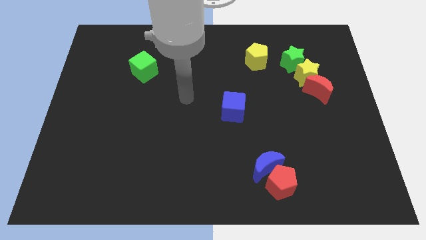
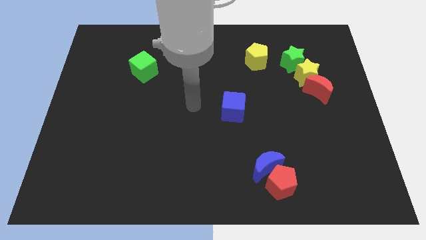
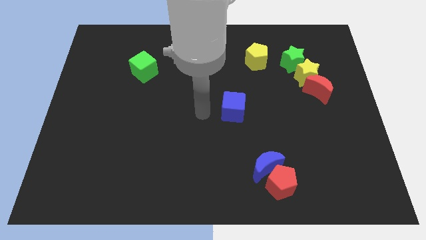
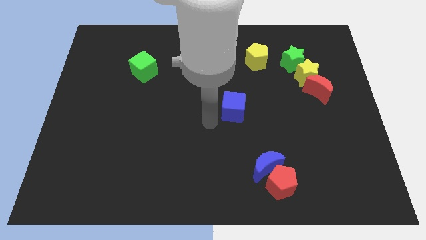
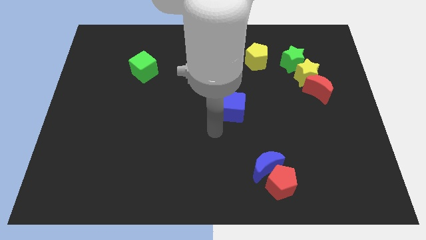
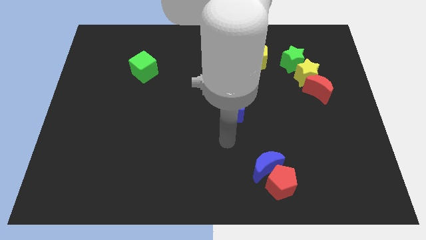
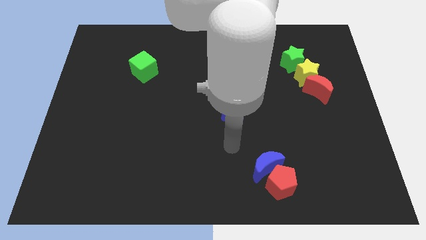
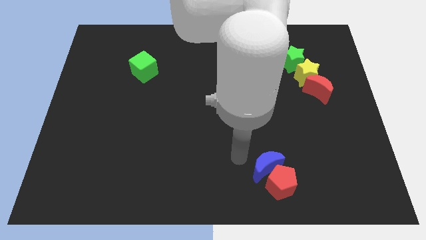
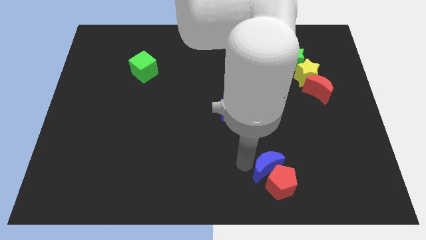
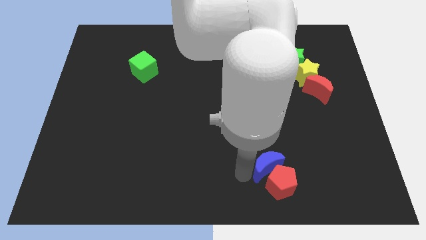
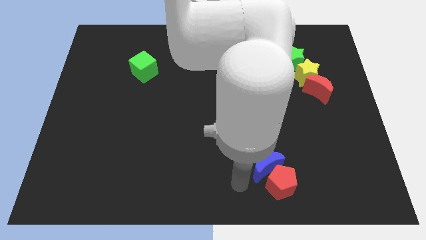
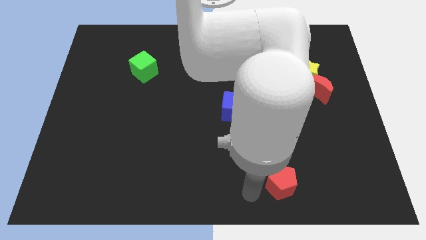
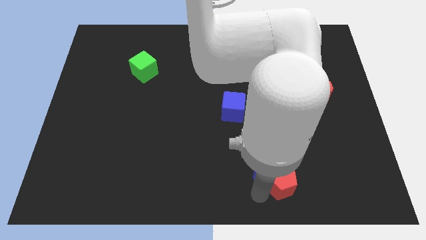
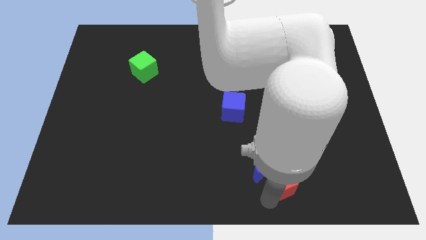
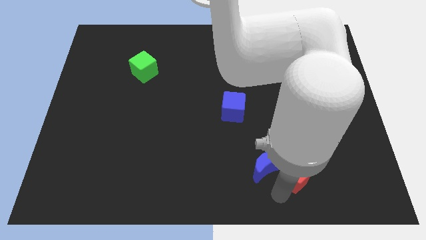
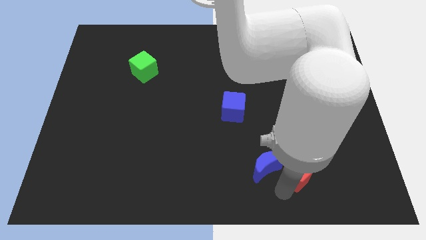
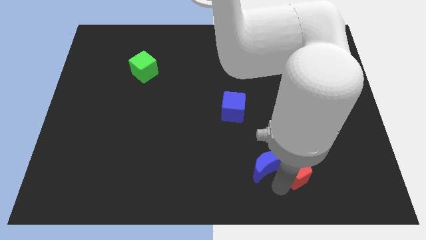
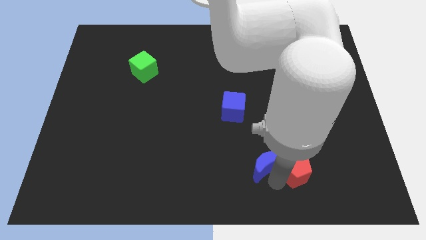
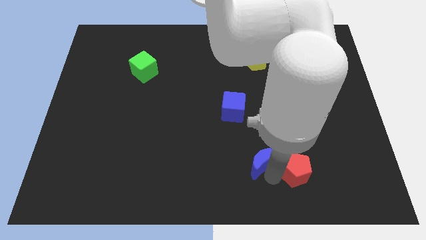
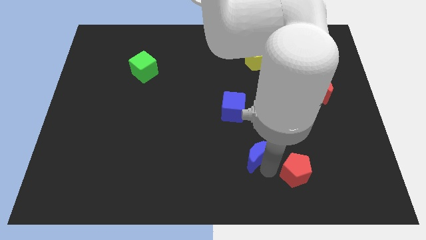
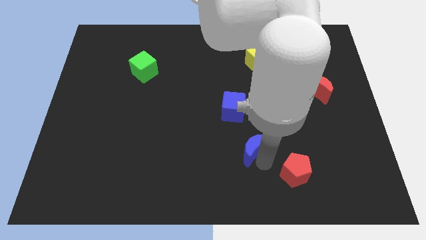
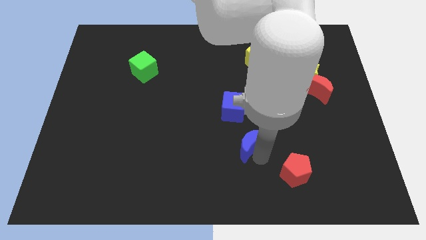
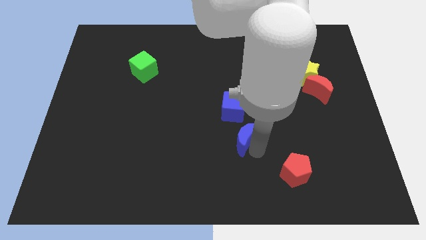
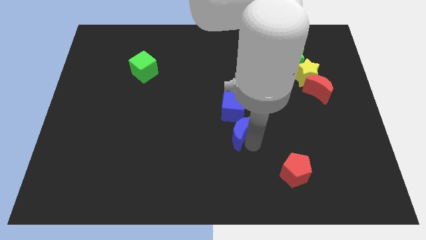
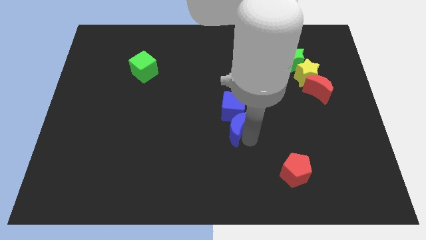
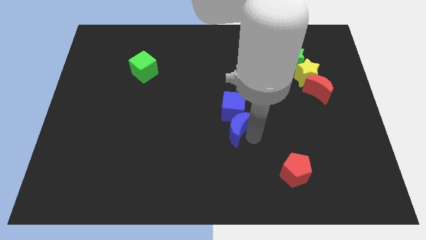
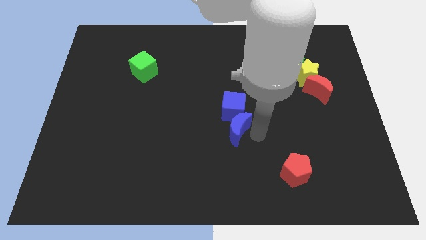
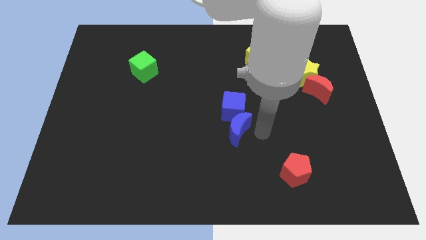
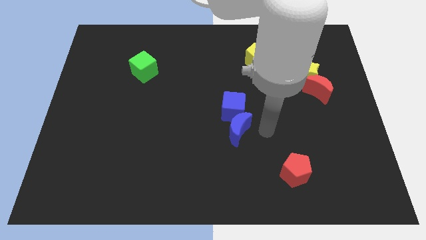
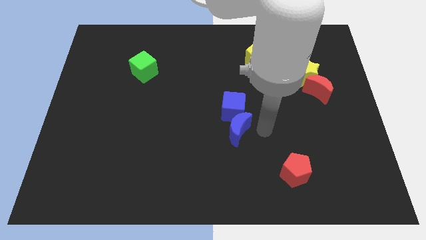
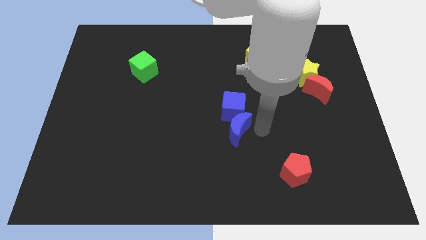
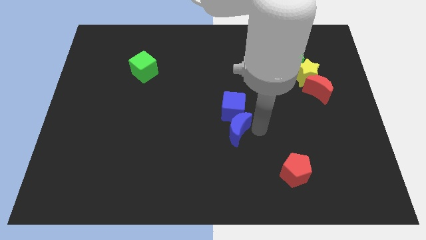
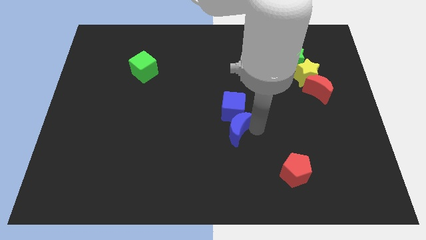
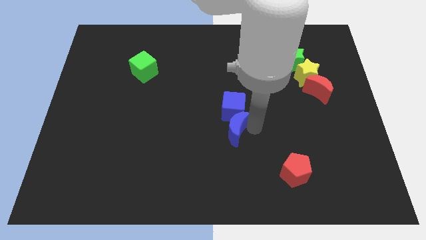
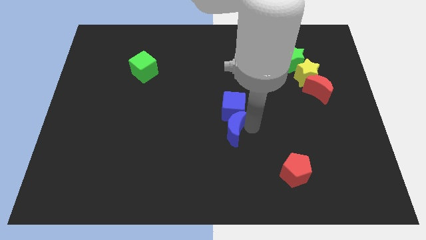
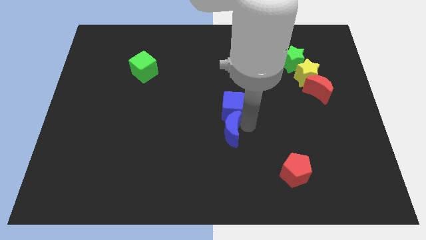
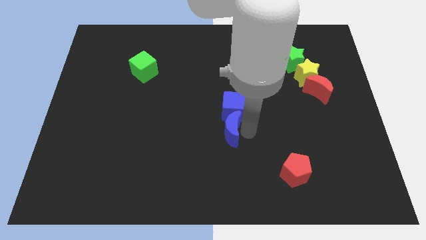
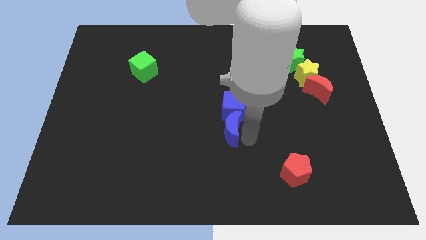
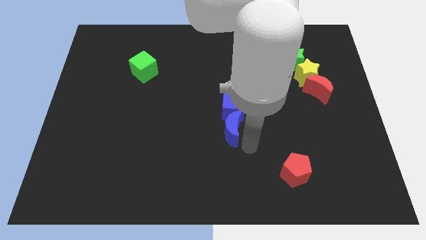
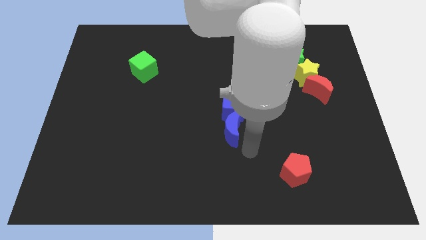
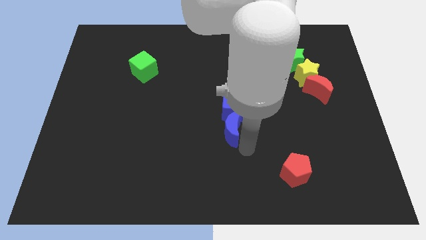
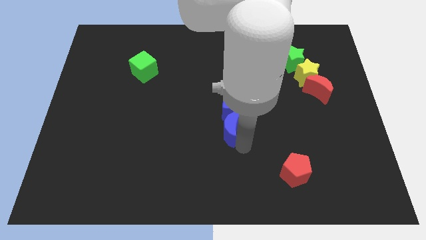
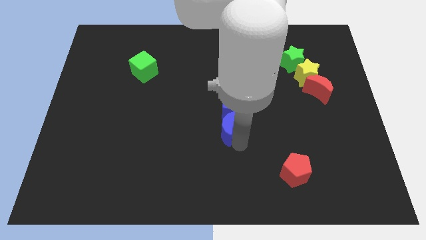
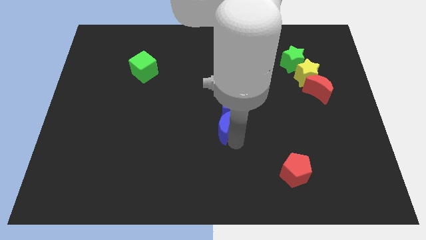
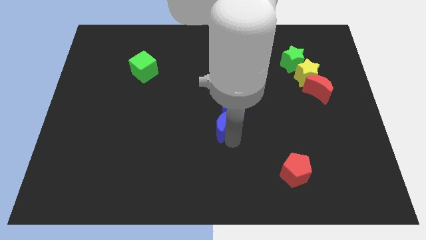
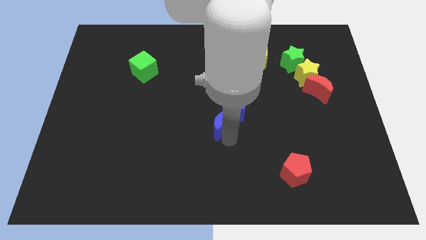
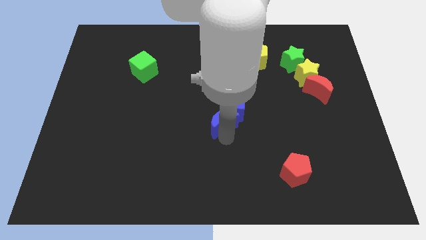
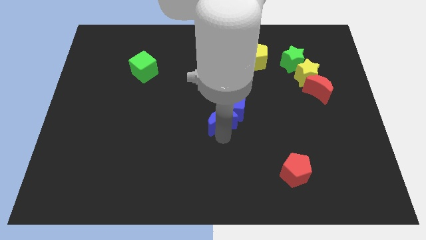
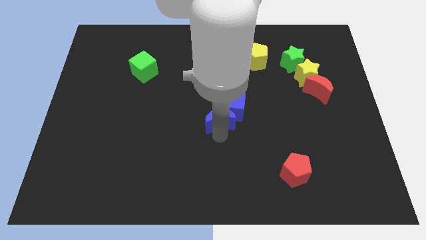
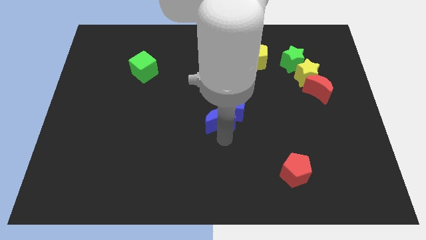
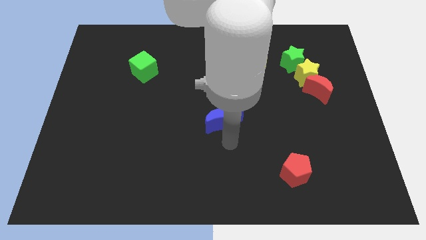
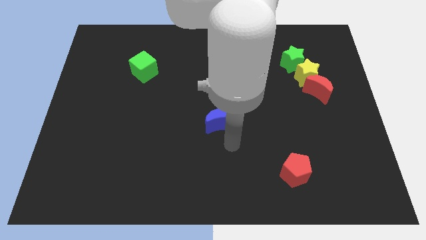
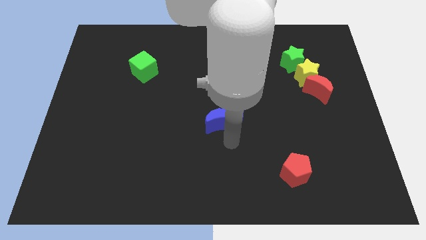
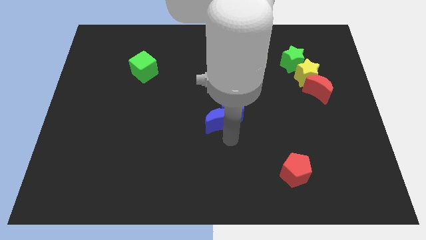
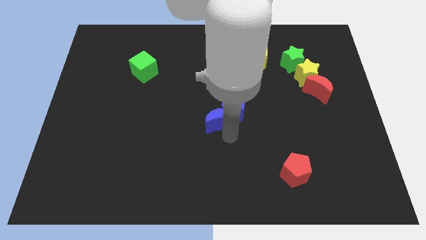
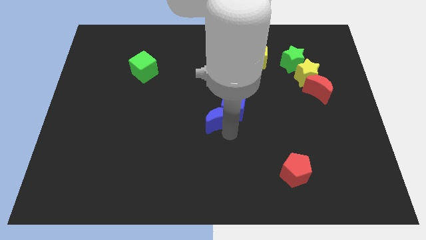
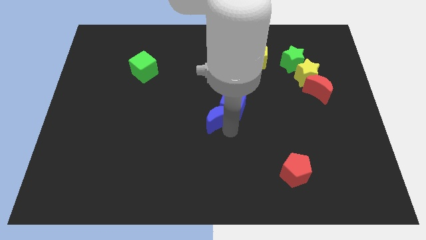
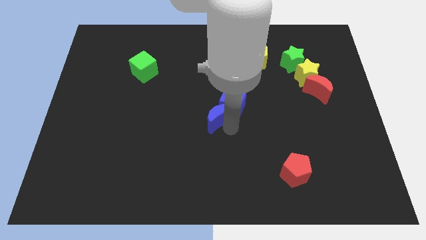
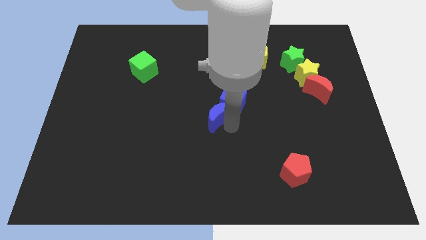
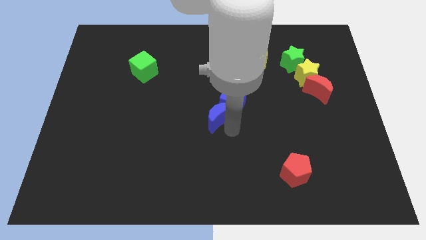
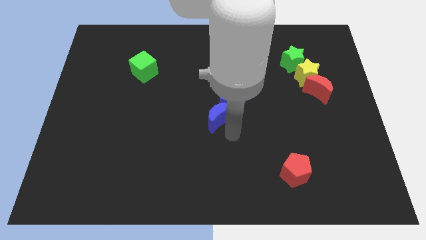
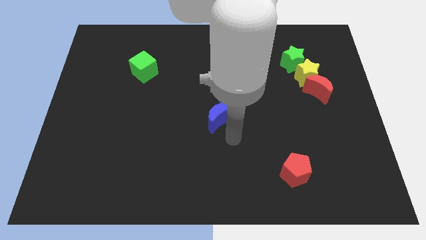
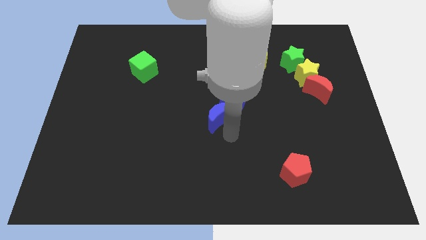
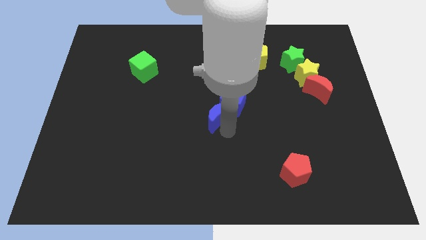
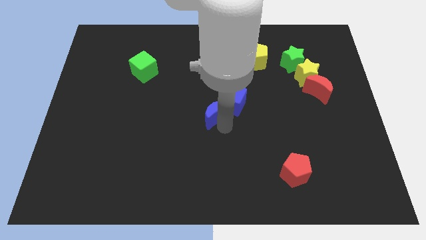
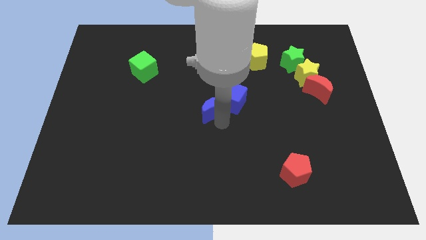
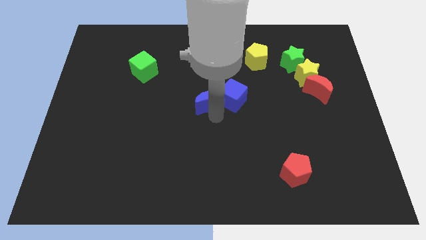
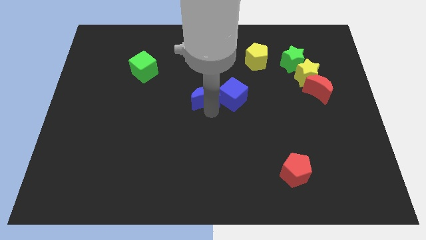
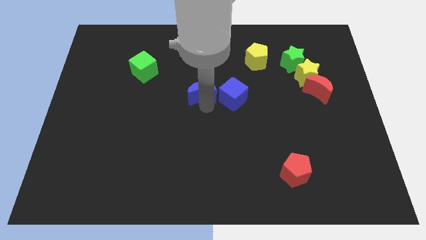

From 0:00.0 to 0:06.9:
push the blue moon to the top left of the blue cube
